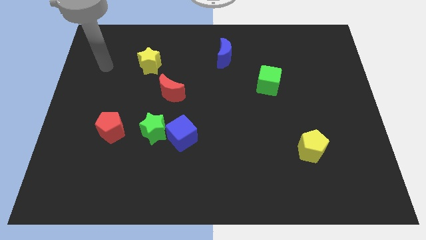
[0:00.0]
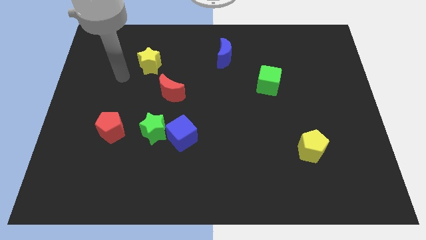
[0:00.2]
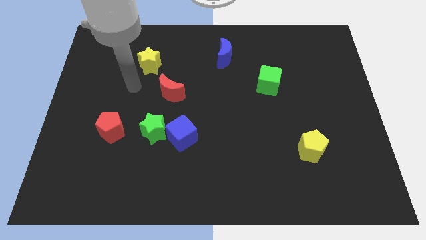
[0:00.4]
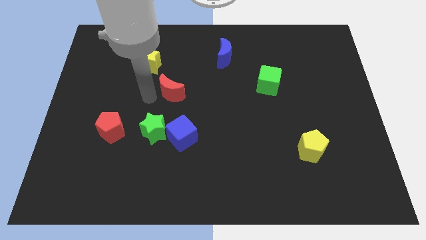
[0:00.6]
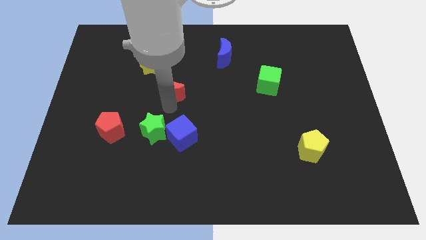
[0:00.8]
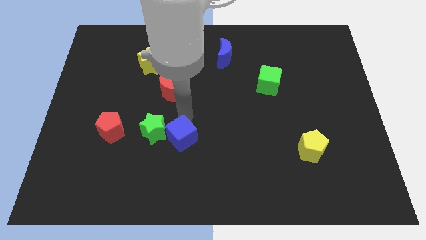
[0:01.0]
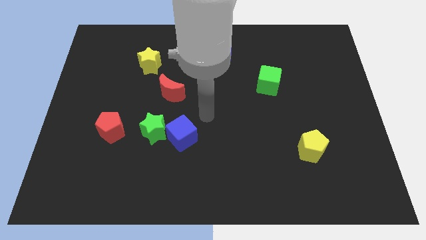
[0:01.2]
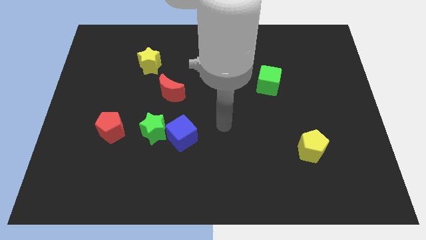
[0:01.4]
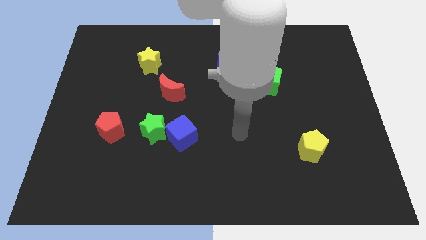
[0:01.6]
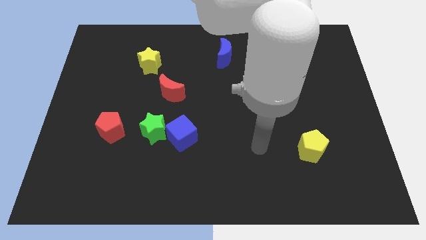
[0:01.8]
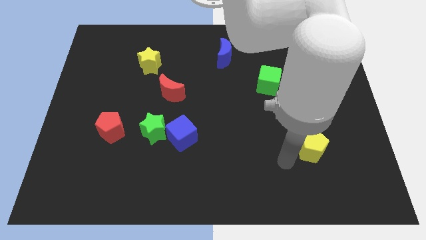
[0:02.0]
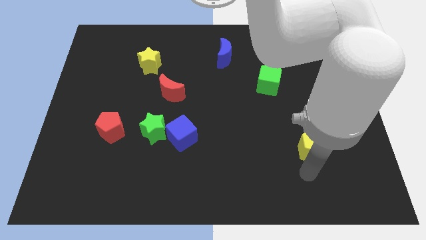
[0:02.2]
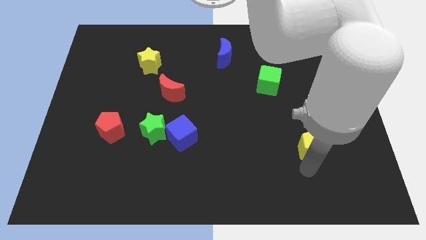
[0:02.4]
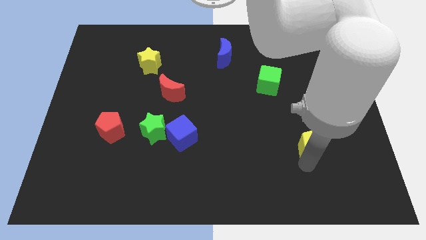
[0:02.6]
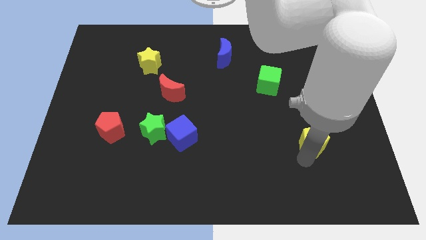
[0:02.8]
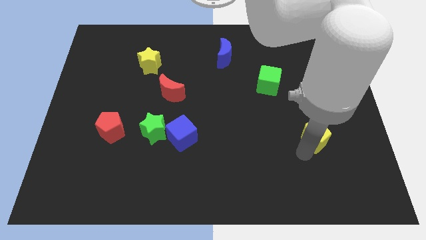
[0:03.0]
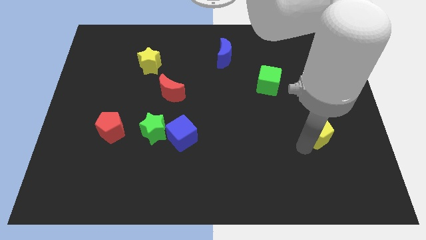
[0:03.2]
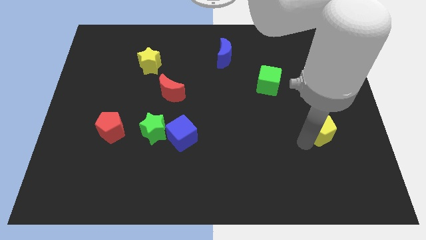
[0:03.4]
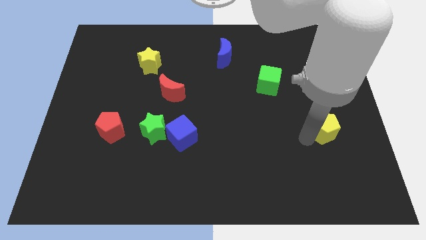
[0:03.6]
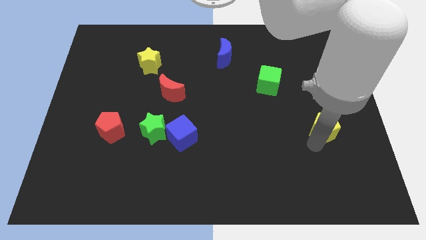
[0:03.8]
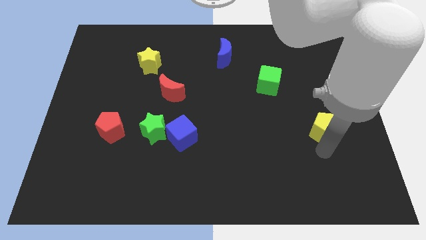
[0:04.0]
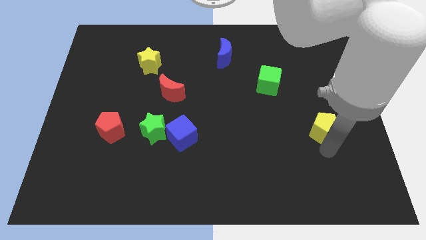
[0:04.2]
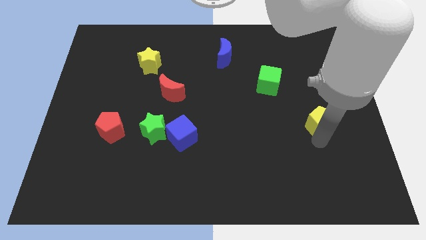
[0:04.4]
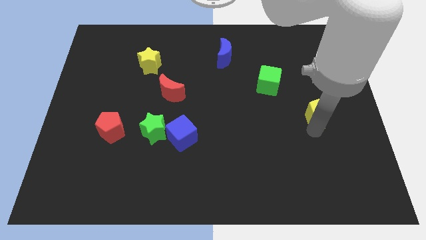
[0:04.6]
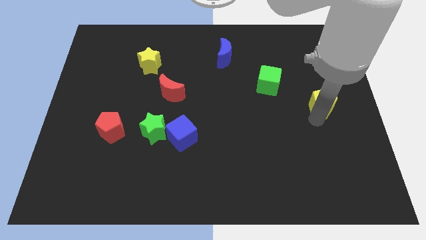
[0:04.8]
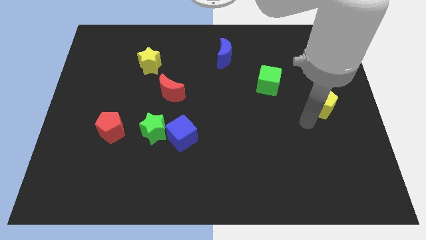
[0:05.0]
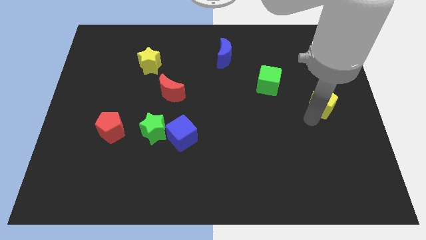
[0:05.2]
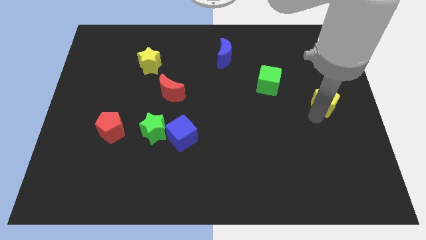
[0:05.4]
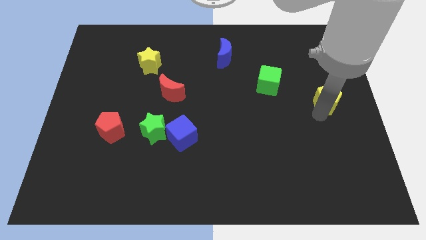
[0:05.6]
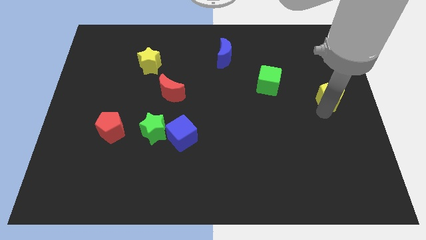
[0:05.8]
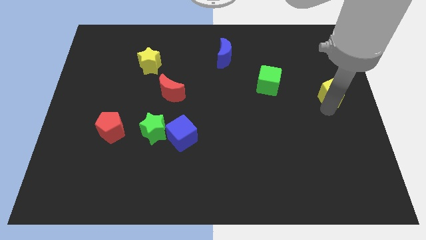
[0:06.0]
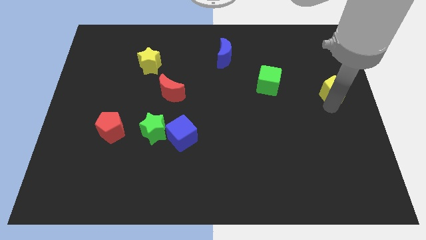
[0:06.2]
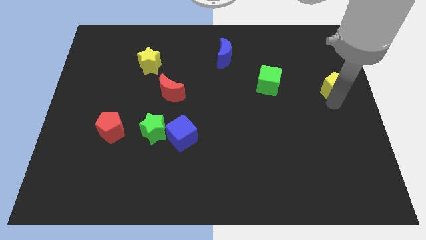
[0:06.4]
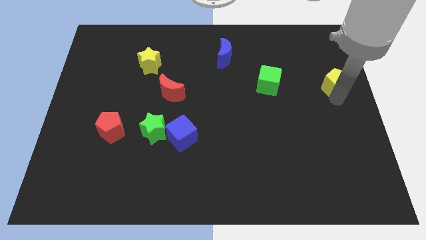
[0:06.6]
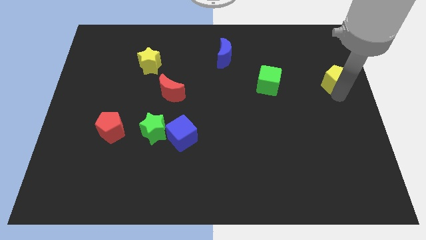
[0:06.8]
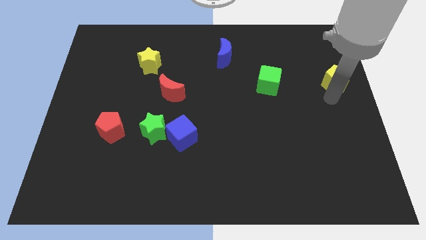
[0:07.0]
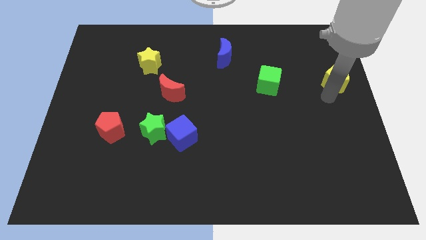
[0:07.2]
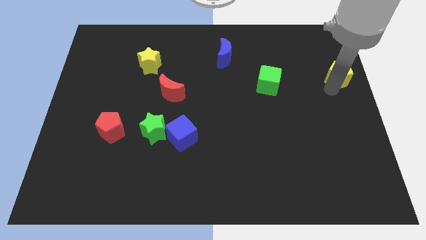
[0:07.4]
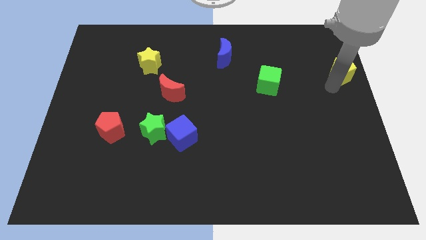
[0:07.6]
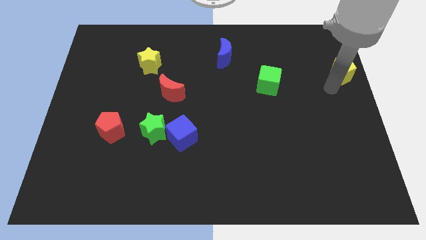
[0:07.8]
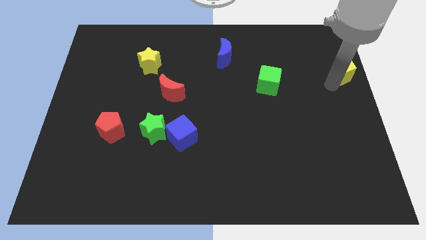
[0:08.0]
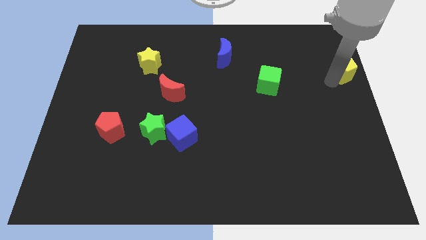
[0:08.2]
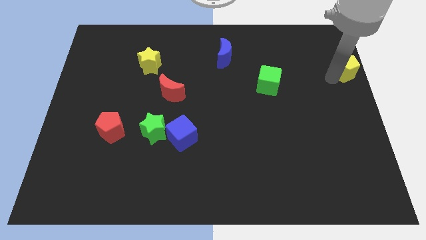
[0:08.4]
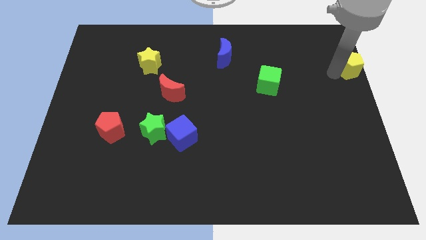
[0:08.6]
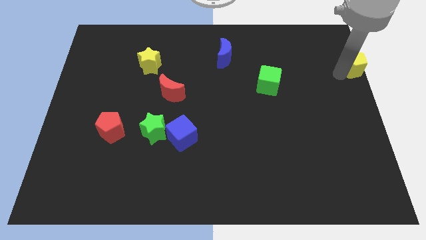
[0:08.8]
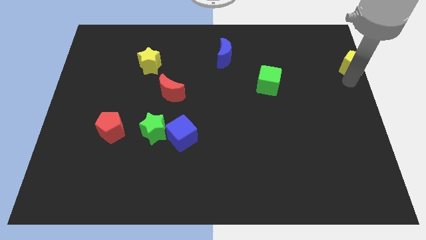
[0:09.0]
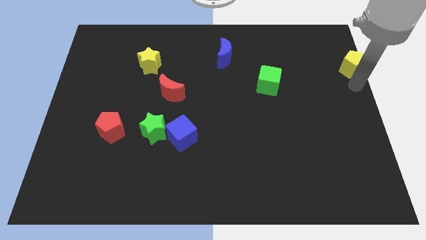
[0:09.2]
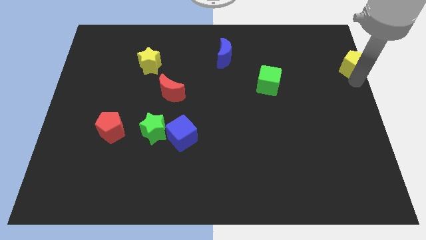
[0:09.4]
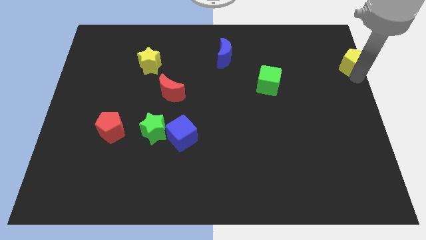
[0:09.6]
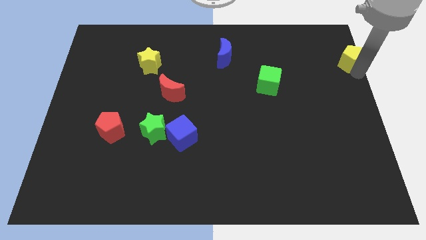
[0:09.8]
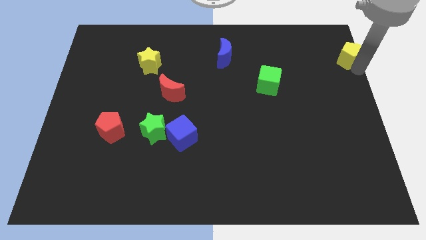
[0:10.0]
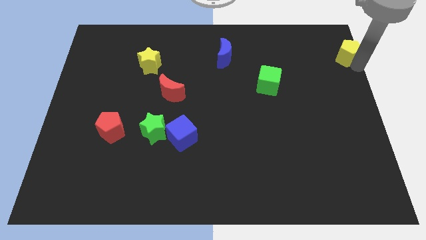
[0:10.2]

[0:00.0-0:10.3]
put the yellow pentagon to the top right of the board

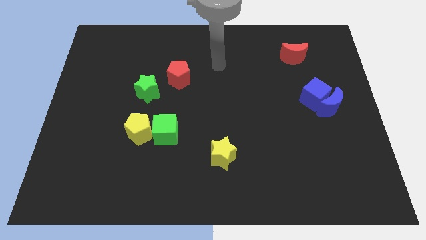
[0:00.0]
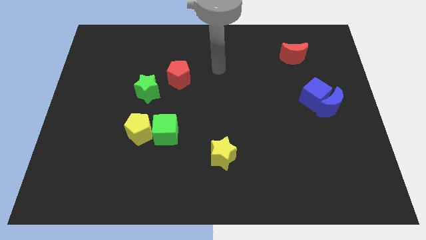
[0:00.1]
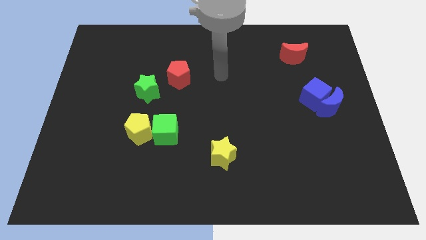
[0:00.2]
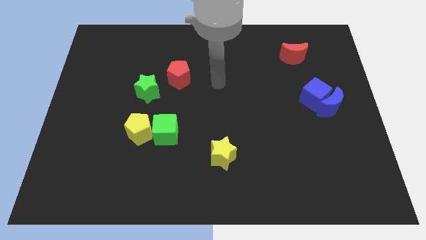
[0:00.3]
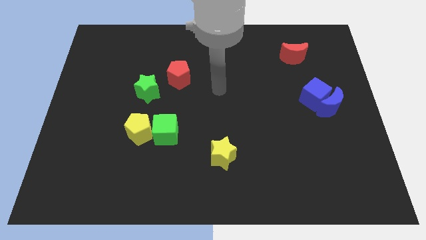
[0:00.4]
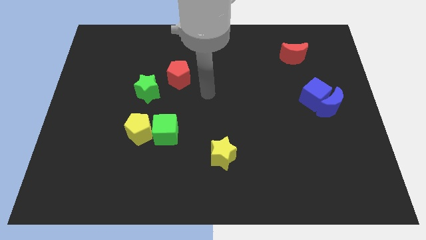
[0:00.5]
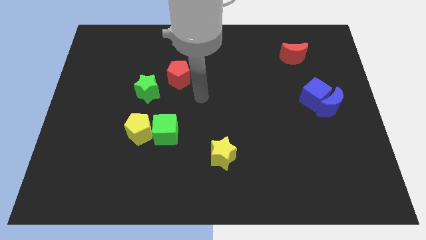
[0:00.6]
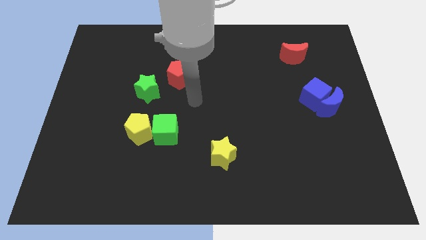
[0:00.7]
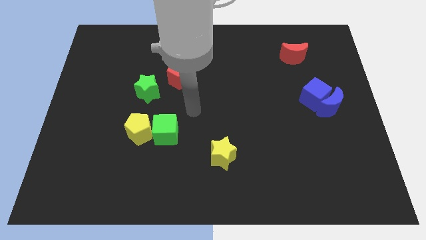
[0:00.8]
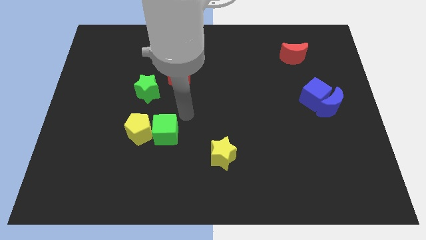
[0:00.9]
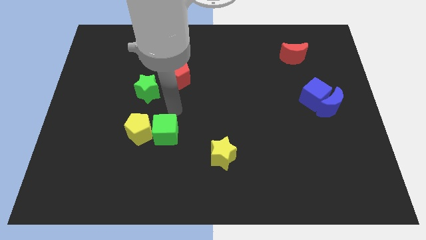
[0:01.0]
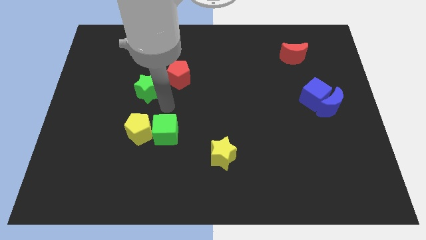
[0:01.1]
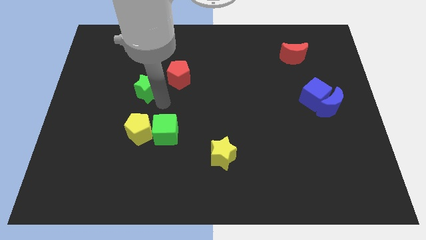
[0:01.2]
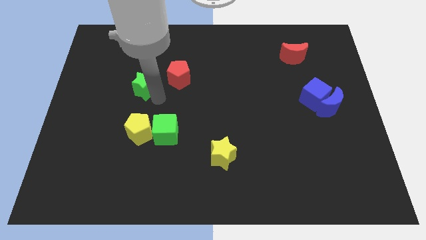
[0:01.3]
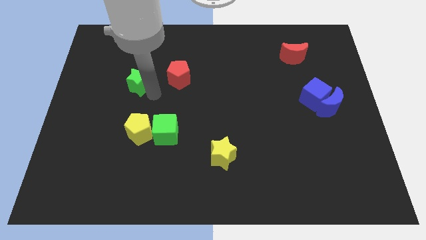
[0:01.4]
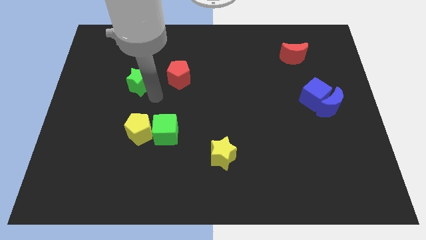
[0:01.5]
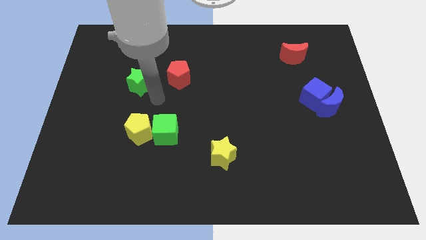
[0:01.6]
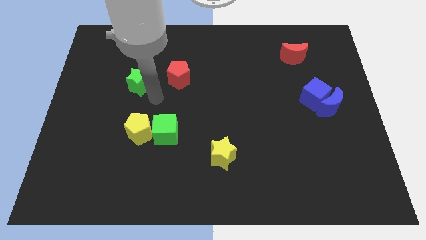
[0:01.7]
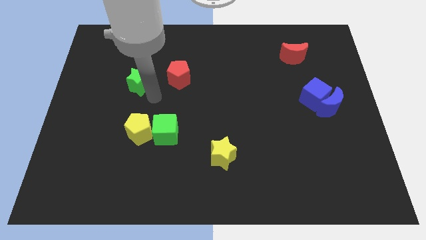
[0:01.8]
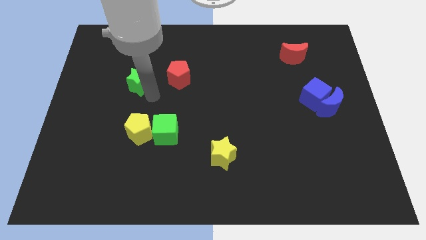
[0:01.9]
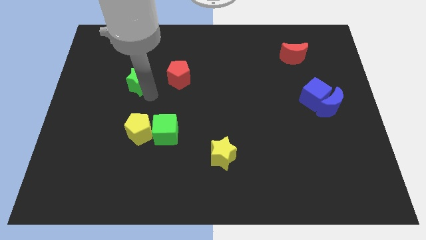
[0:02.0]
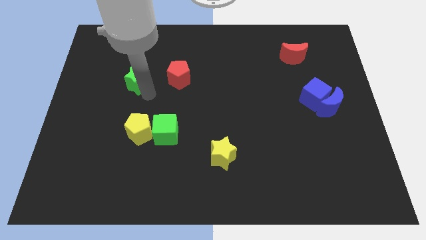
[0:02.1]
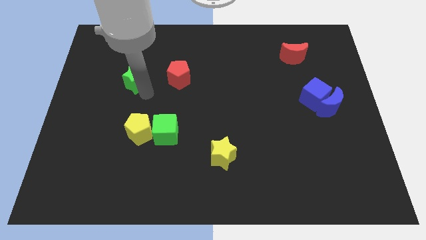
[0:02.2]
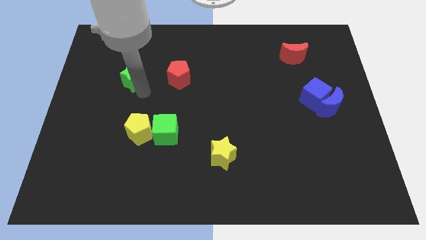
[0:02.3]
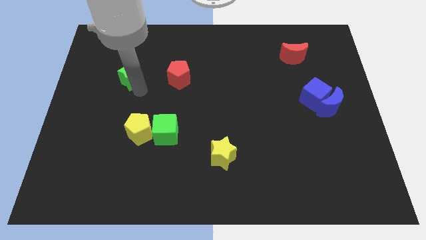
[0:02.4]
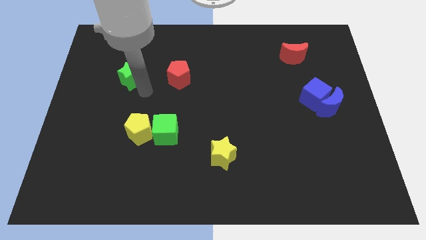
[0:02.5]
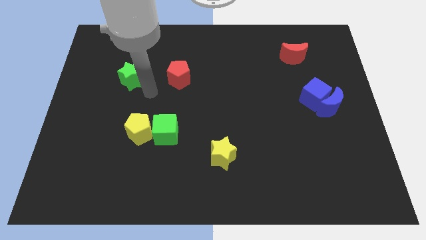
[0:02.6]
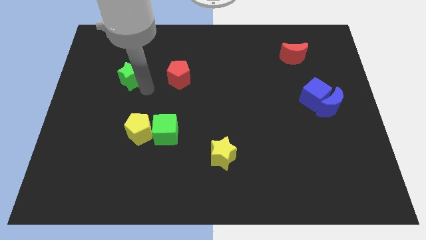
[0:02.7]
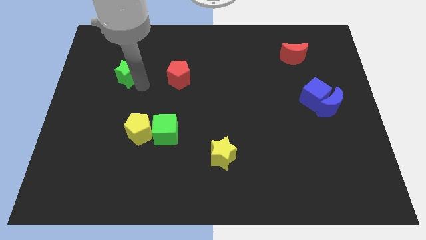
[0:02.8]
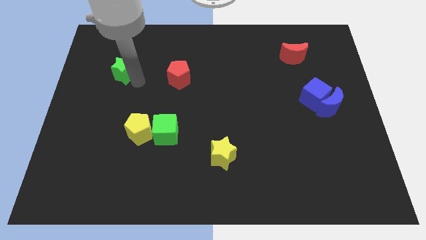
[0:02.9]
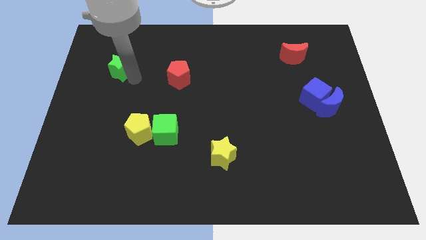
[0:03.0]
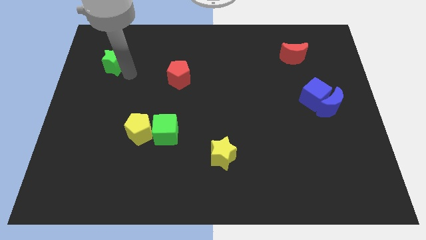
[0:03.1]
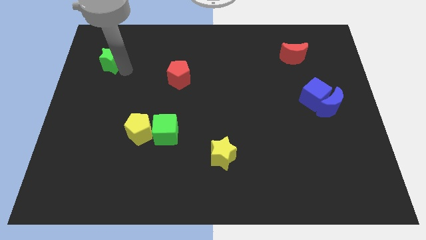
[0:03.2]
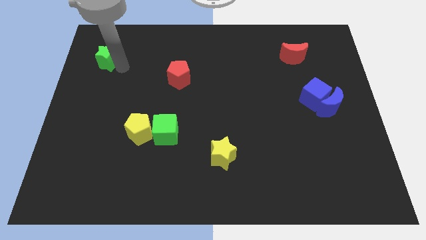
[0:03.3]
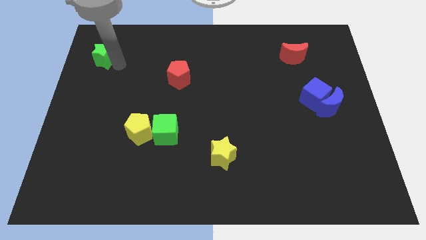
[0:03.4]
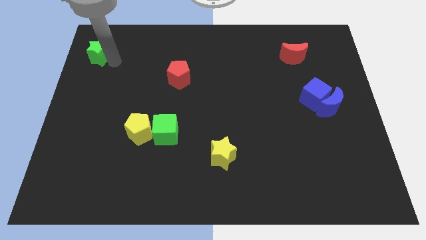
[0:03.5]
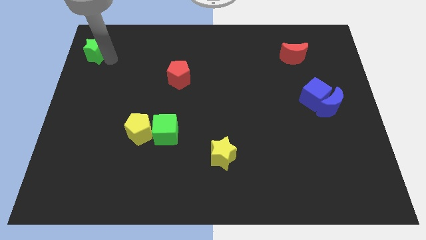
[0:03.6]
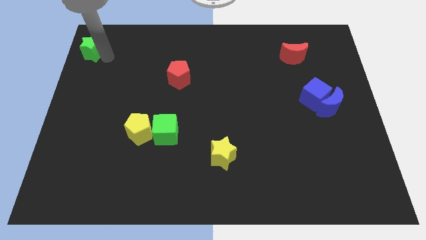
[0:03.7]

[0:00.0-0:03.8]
move the green star to the upper left corner
